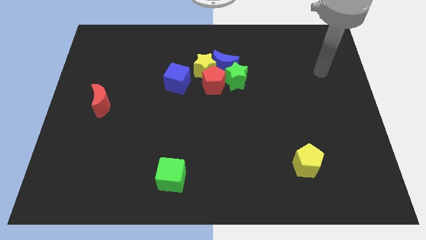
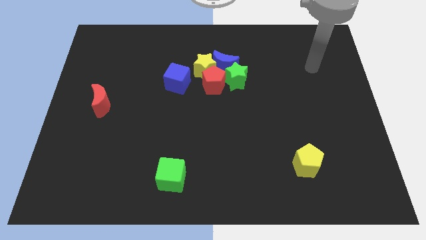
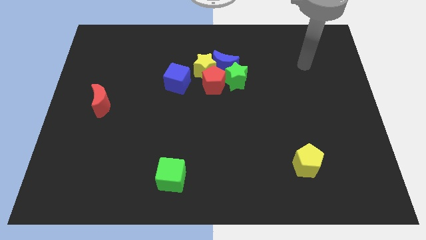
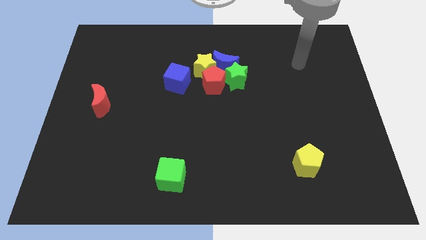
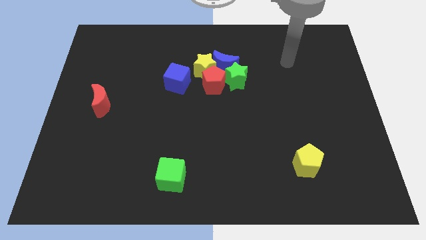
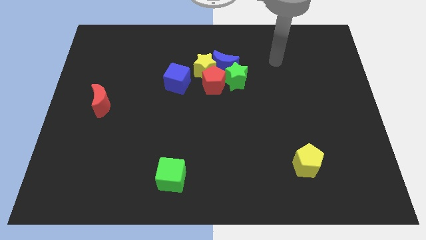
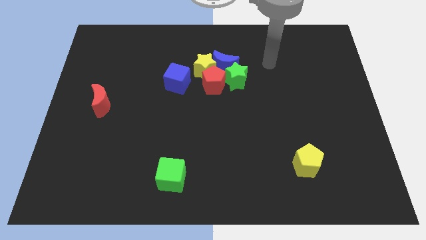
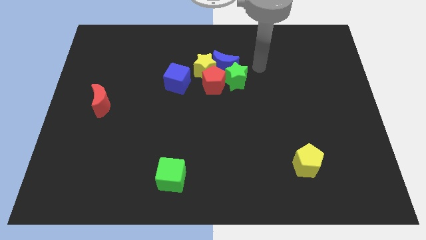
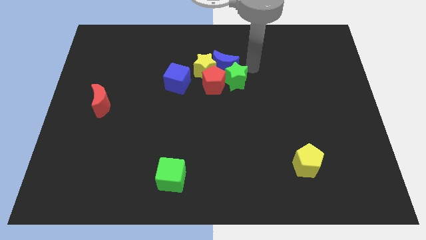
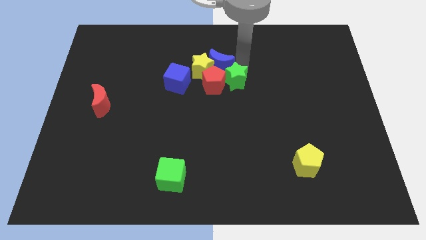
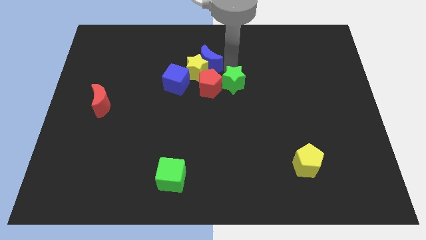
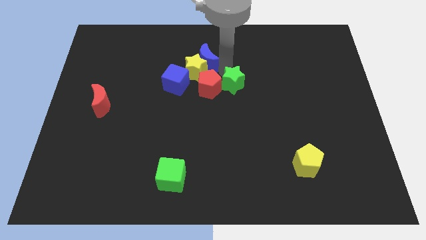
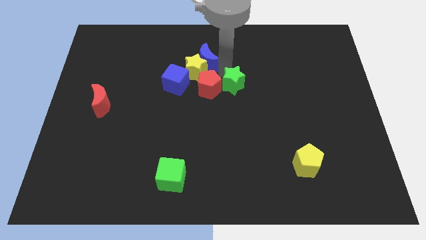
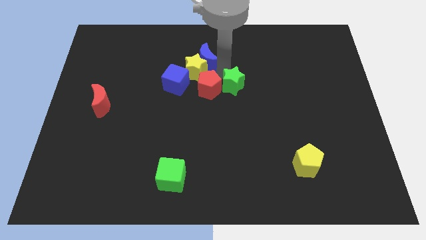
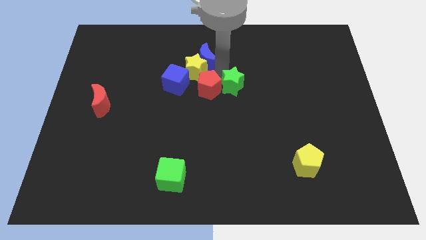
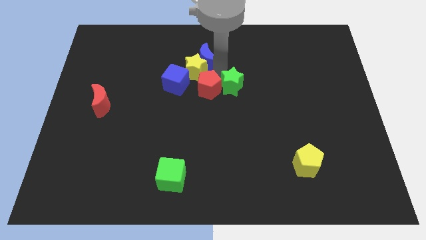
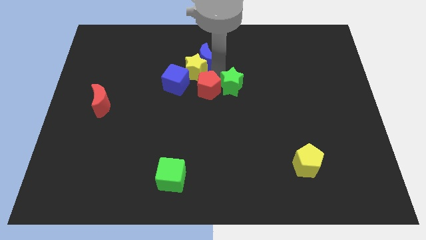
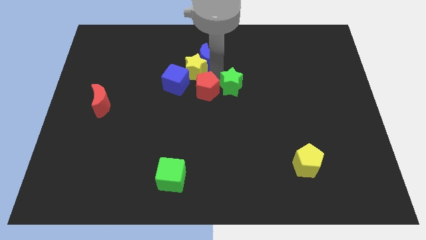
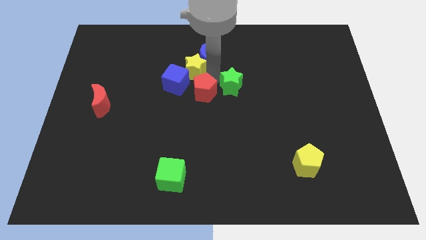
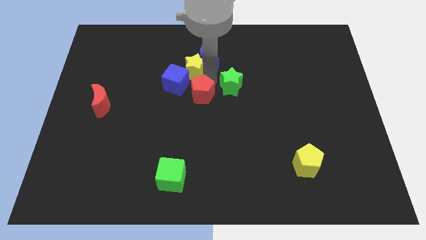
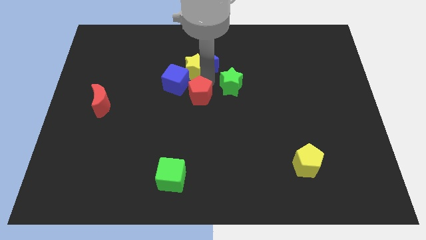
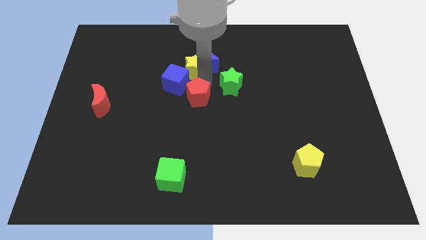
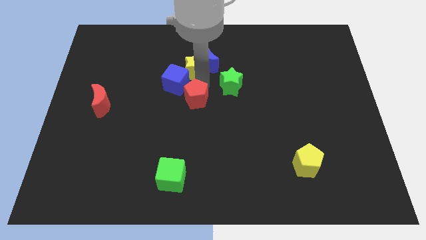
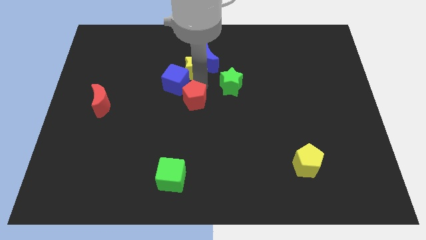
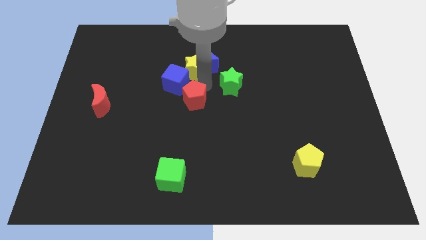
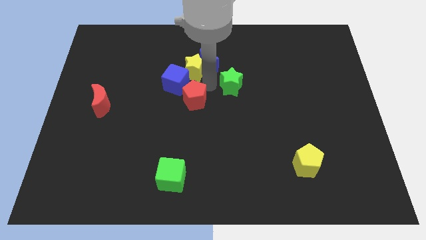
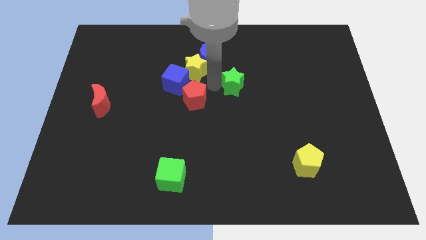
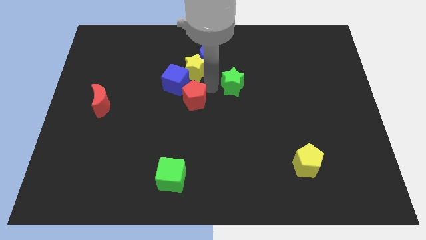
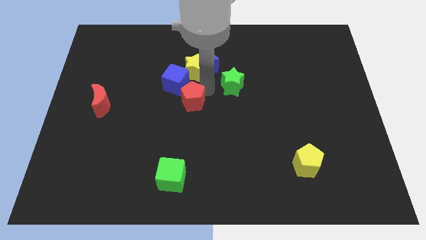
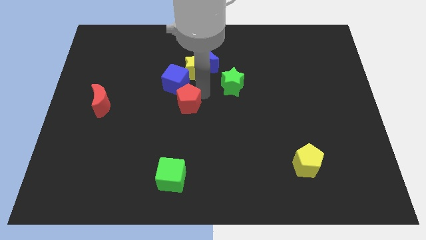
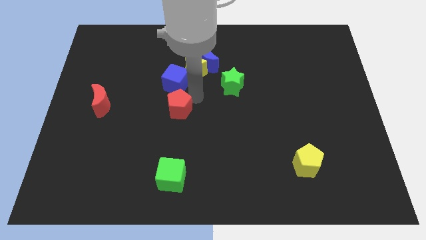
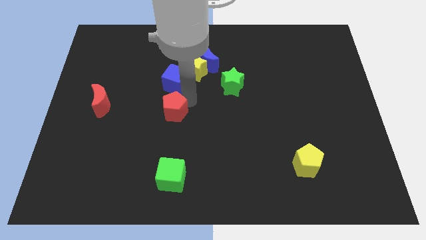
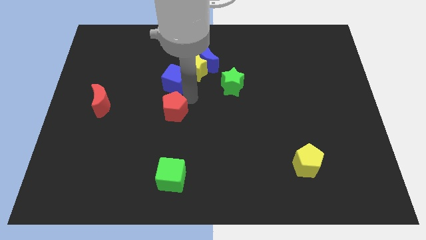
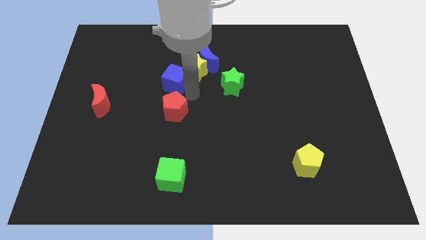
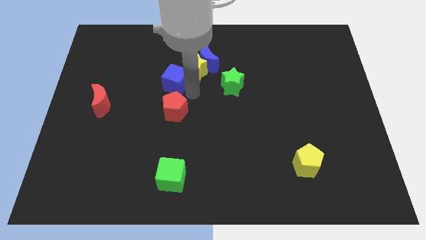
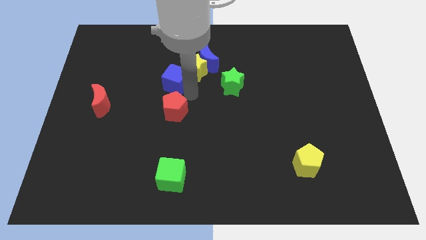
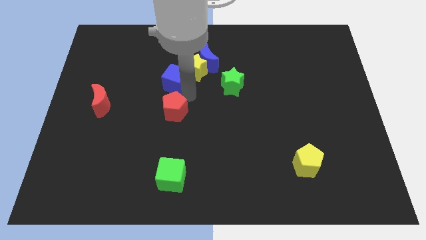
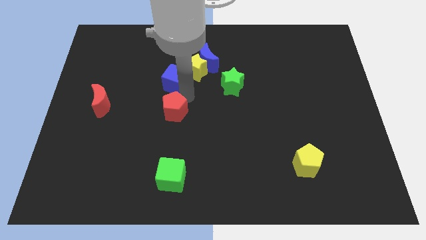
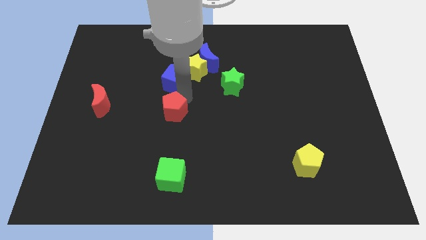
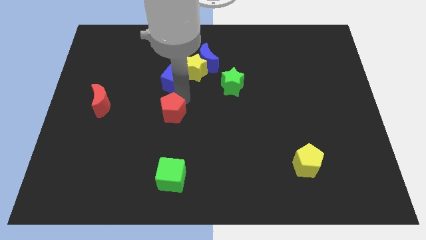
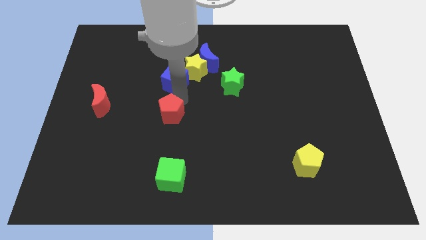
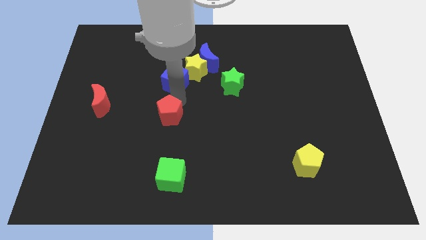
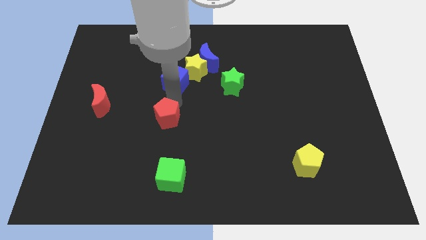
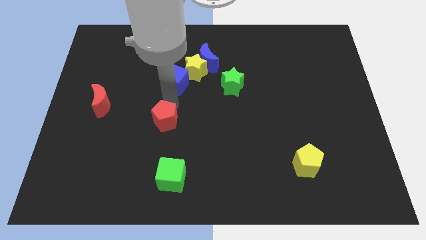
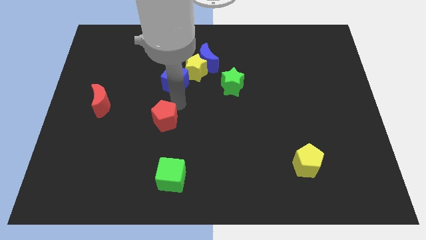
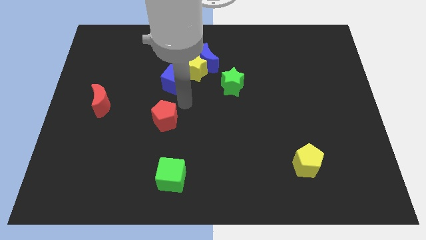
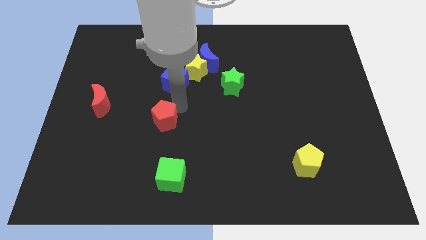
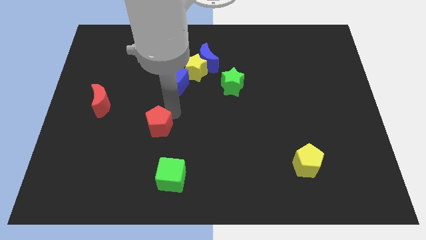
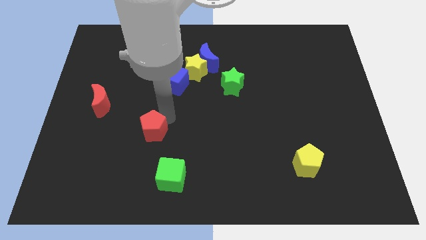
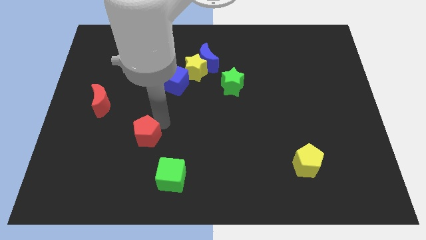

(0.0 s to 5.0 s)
move the red pentagon diagonally downwards and left

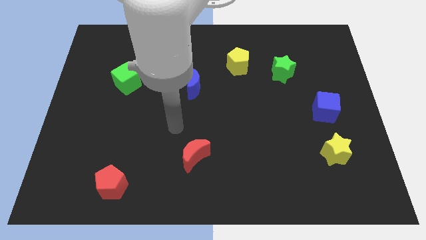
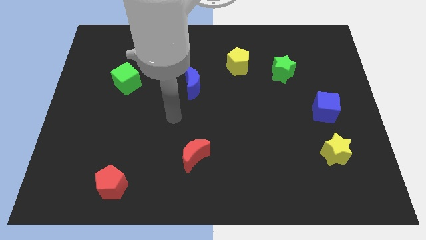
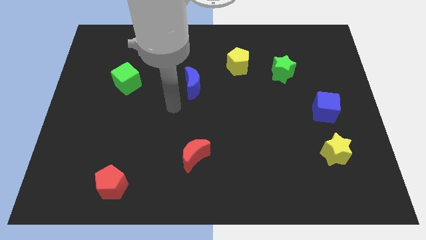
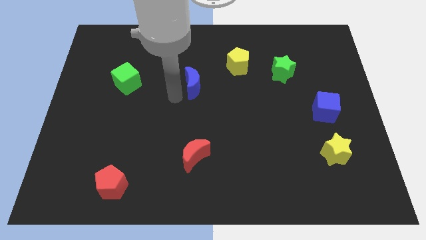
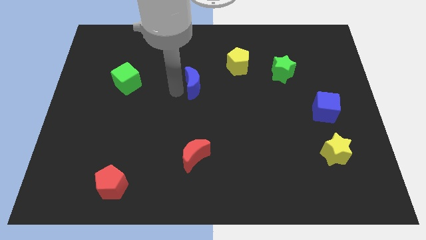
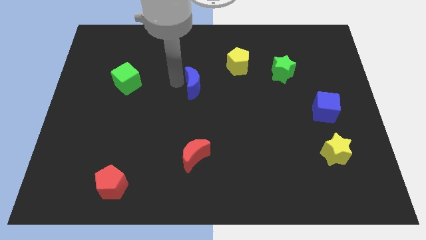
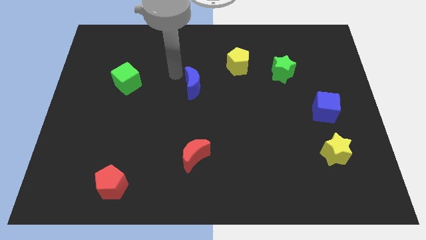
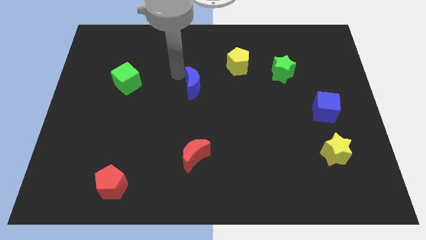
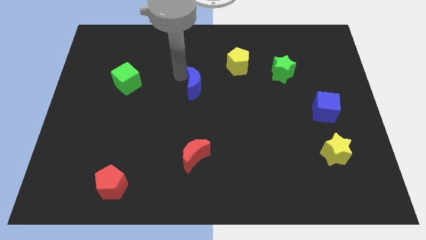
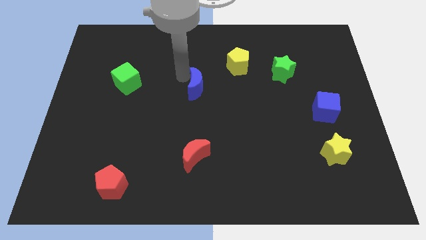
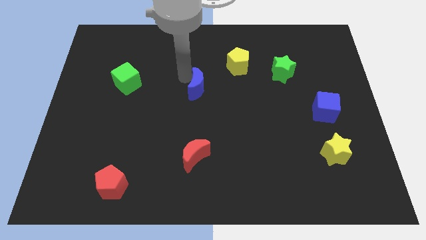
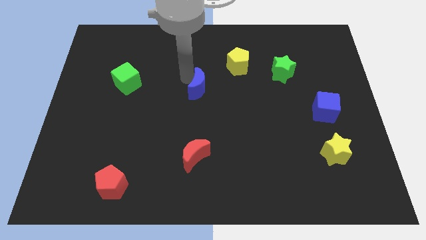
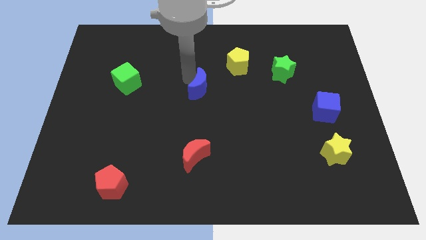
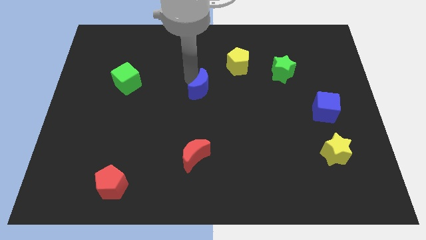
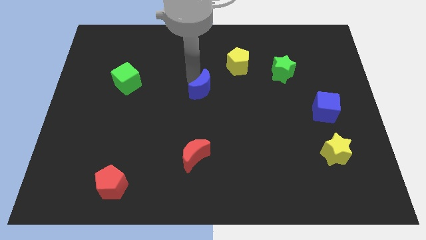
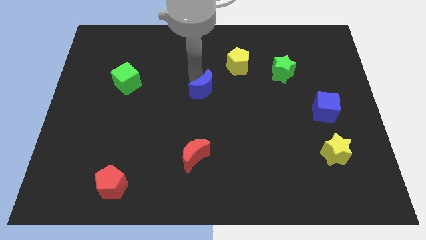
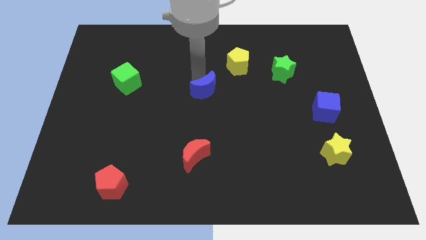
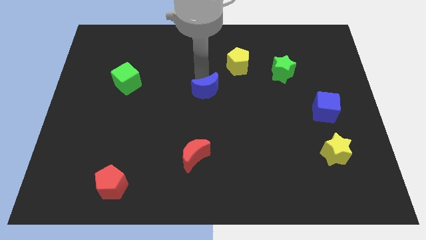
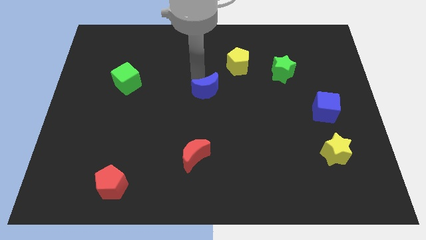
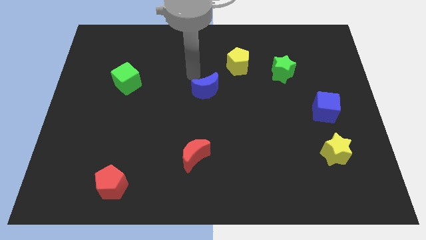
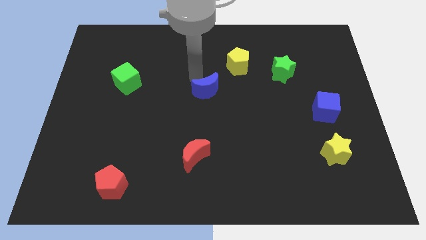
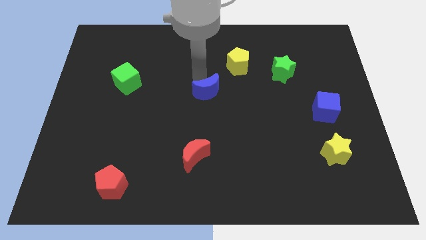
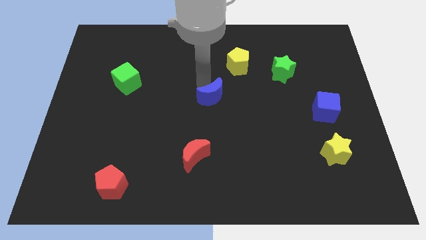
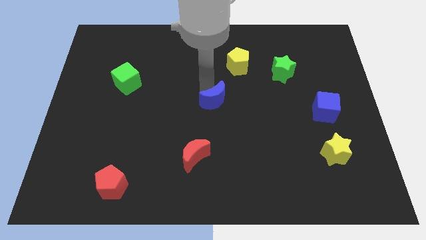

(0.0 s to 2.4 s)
move the blue moon a little bit downwards and to the right

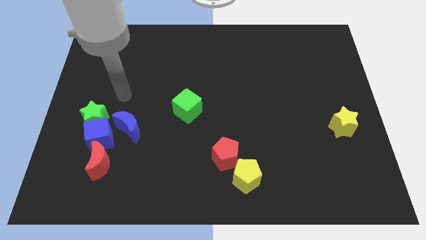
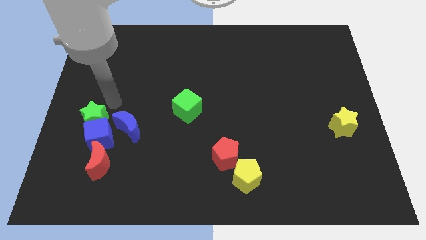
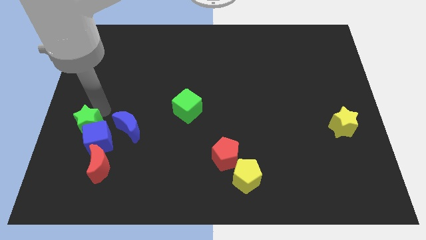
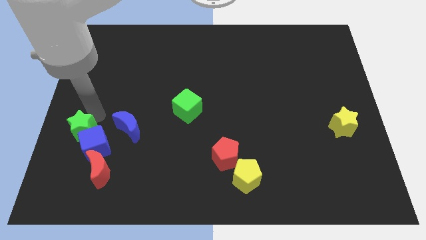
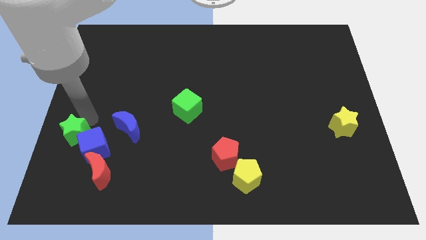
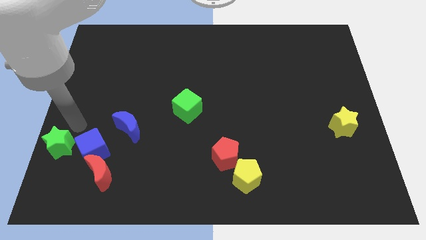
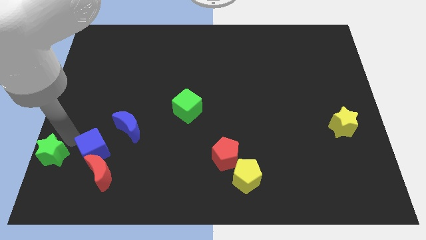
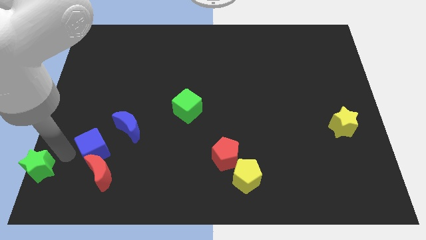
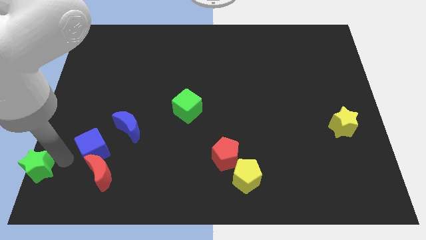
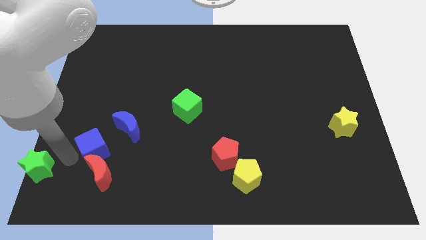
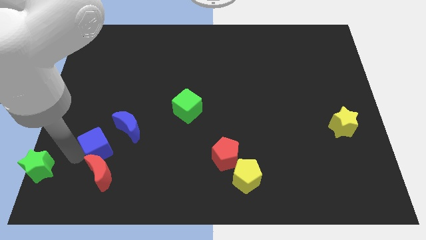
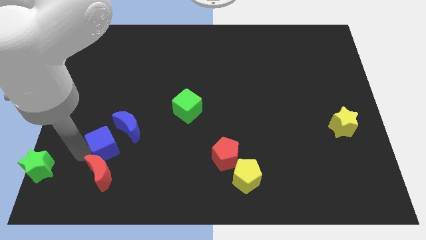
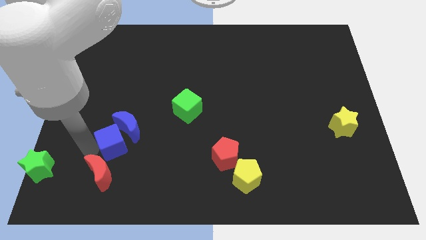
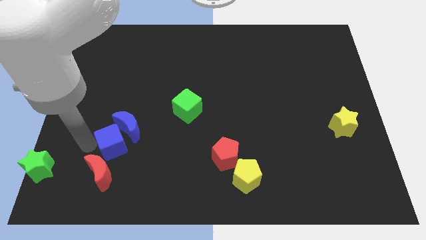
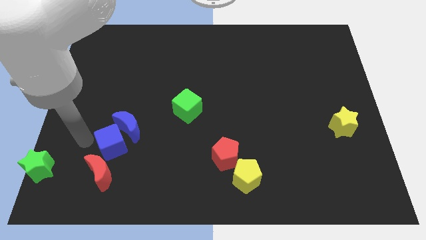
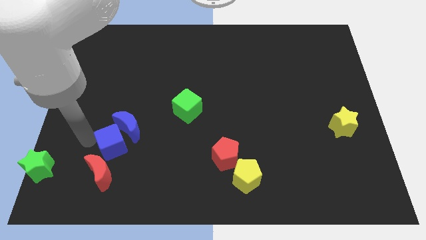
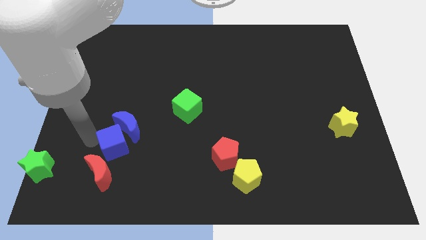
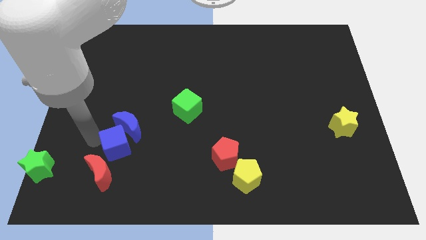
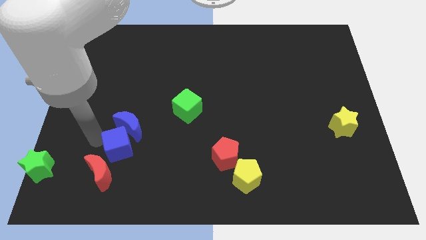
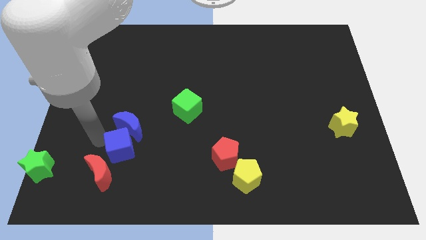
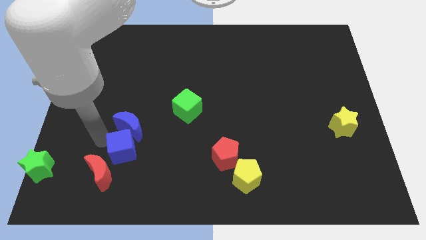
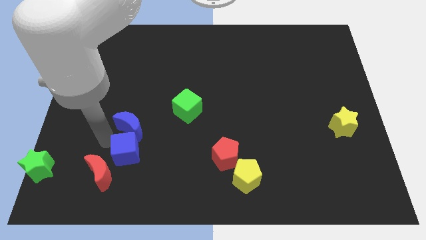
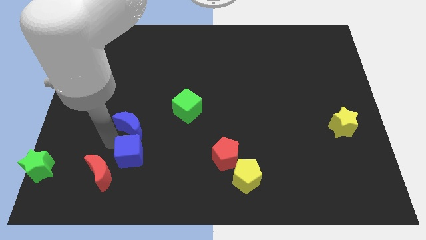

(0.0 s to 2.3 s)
push the blue cube a little right
